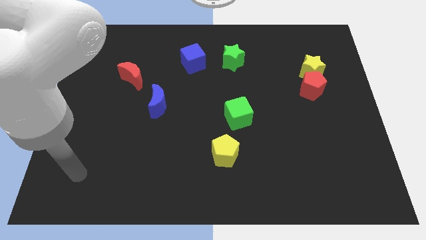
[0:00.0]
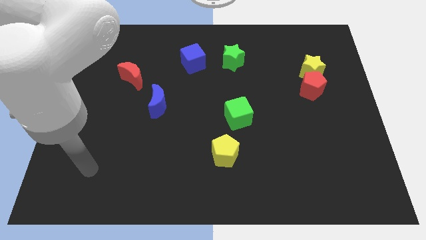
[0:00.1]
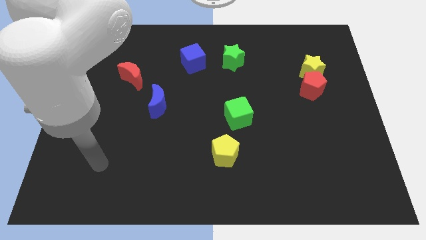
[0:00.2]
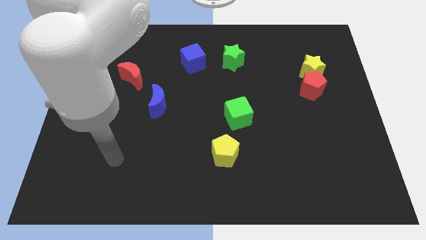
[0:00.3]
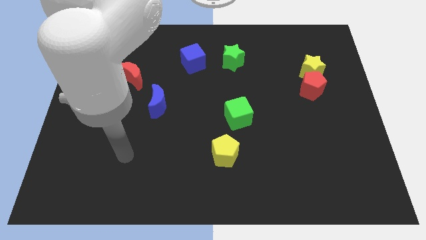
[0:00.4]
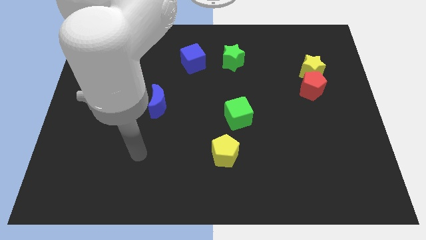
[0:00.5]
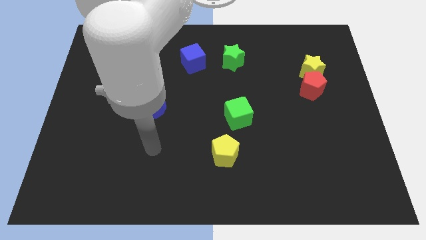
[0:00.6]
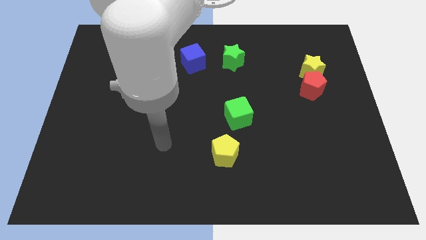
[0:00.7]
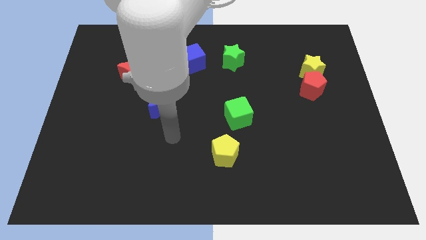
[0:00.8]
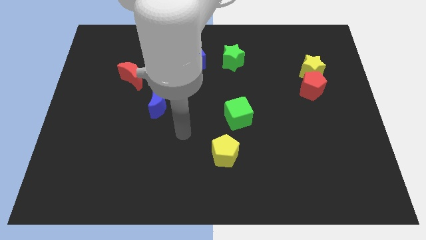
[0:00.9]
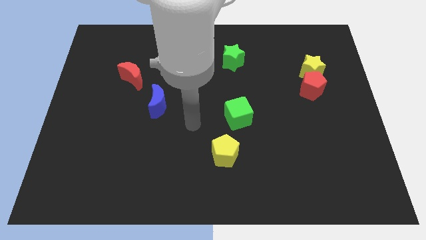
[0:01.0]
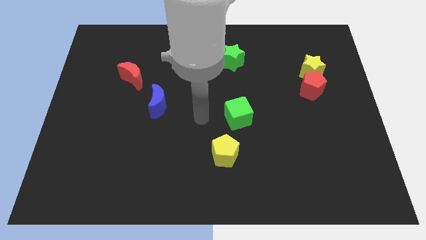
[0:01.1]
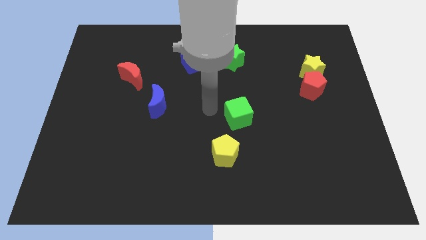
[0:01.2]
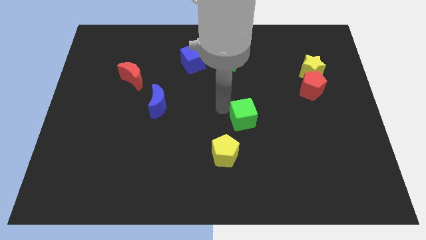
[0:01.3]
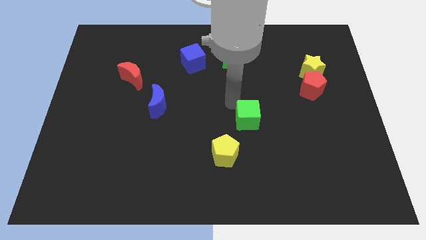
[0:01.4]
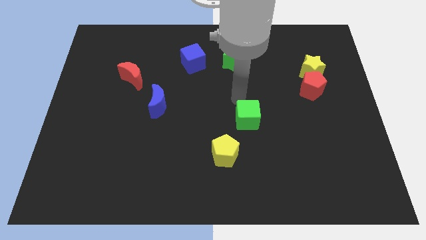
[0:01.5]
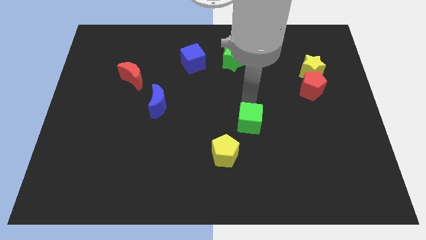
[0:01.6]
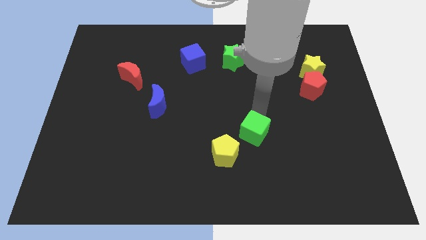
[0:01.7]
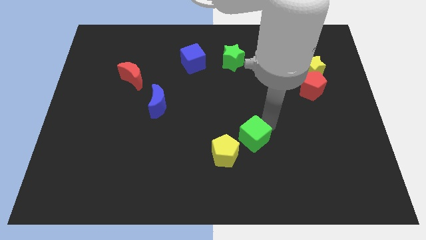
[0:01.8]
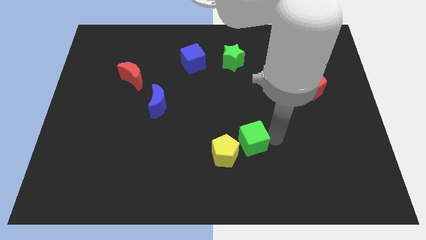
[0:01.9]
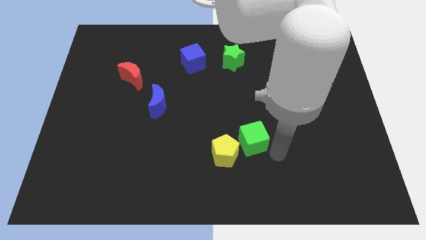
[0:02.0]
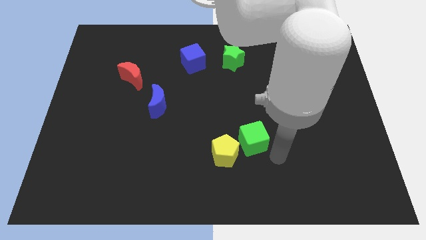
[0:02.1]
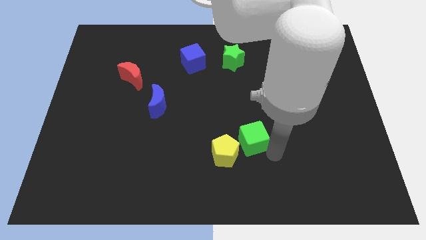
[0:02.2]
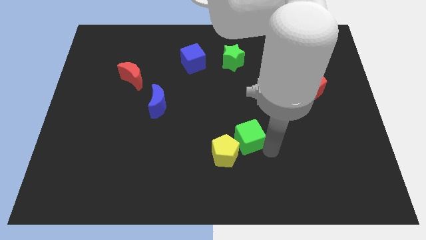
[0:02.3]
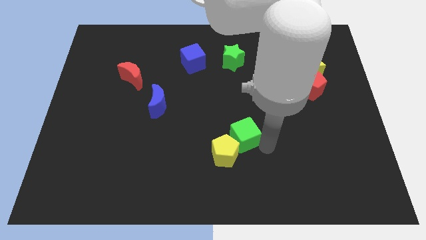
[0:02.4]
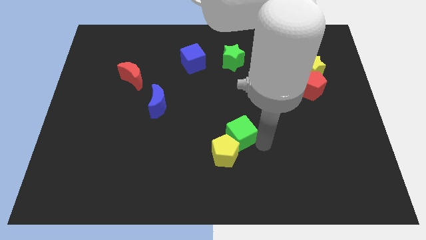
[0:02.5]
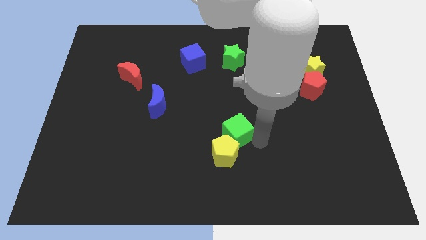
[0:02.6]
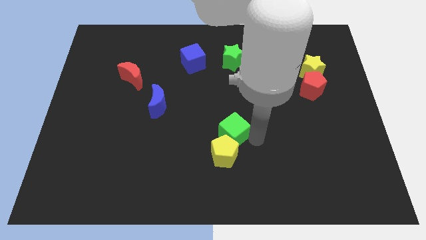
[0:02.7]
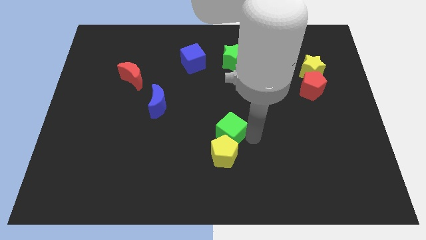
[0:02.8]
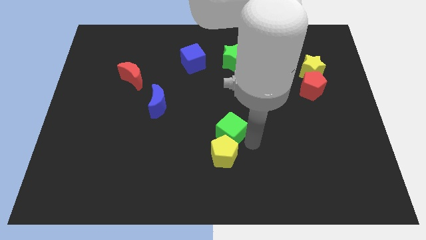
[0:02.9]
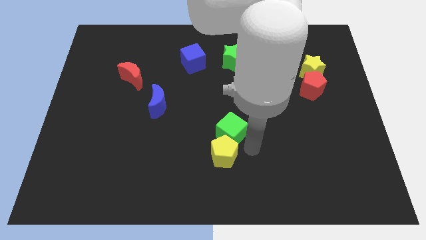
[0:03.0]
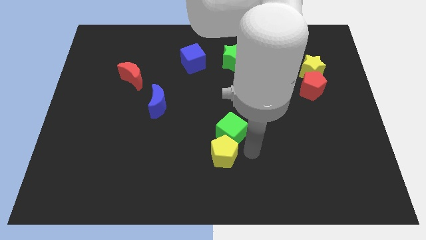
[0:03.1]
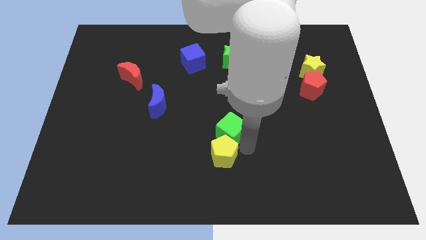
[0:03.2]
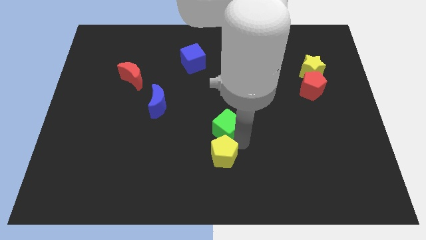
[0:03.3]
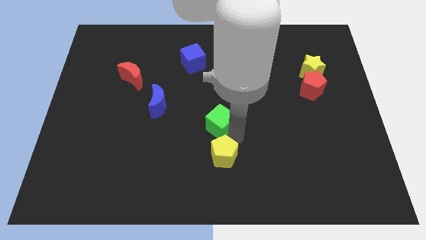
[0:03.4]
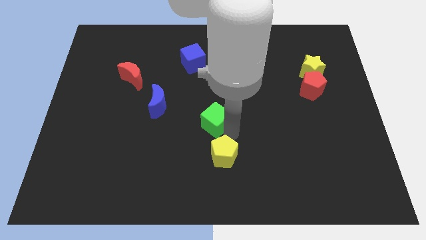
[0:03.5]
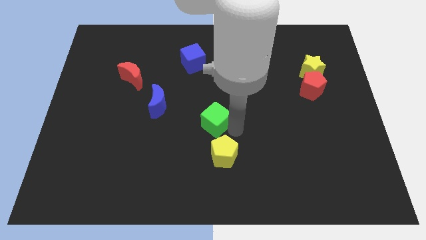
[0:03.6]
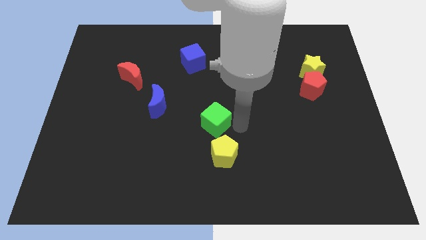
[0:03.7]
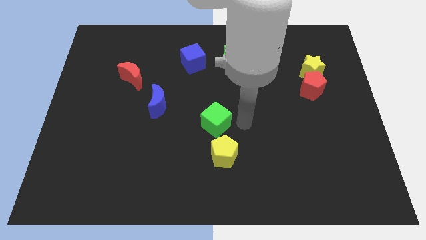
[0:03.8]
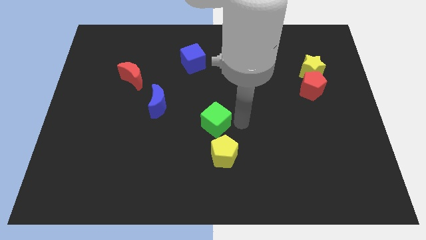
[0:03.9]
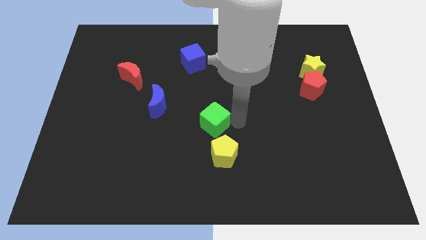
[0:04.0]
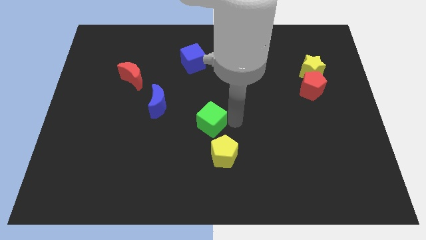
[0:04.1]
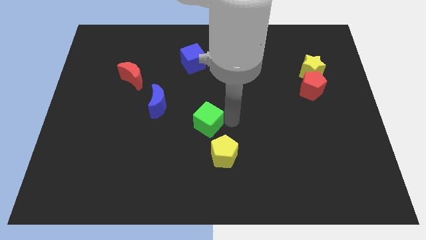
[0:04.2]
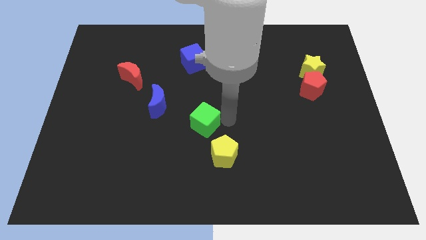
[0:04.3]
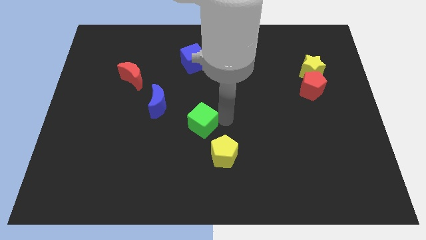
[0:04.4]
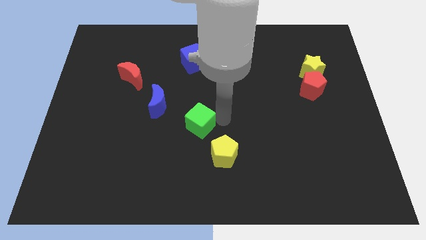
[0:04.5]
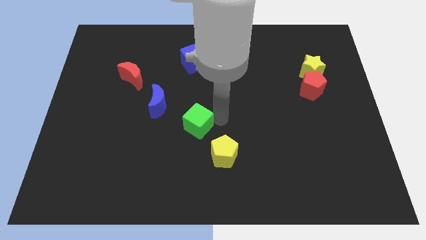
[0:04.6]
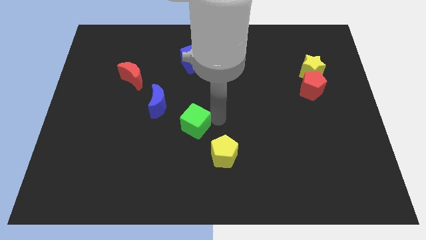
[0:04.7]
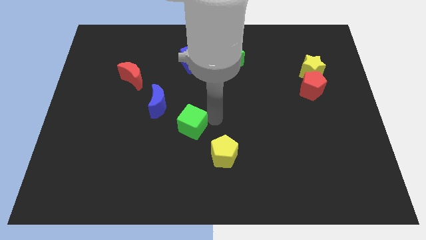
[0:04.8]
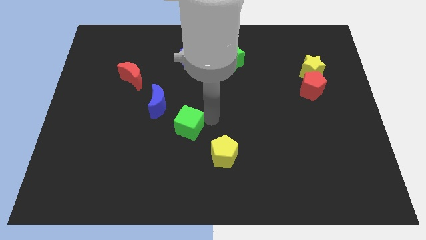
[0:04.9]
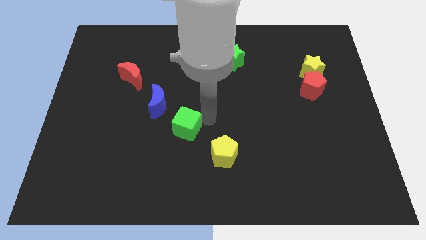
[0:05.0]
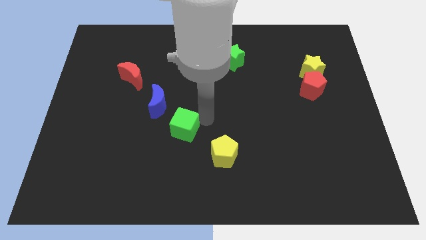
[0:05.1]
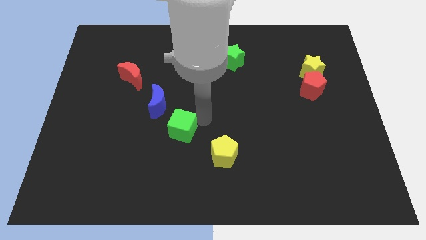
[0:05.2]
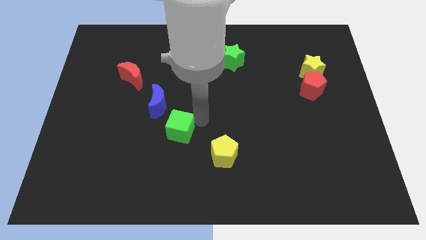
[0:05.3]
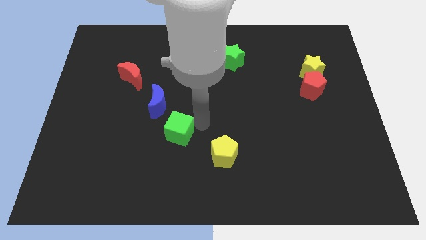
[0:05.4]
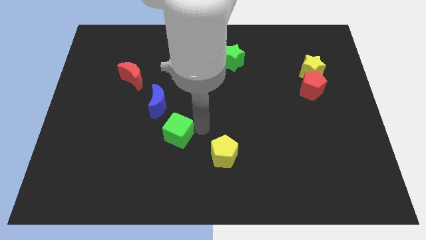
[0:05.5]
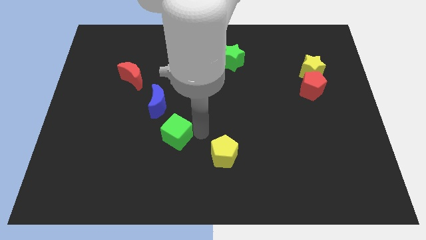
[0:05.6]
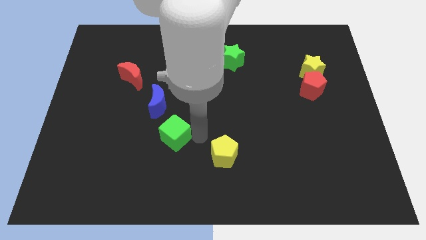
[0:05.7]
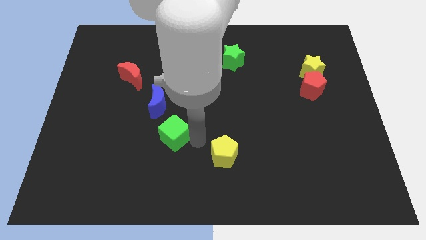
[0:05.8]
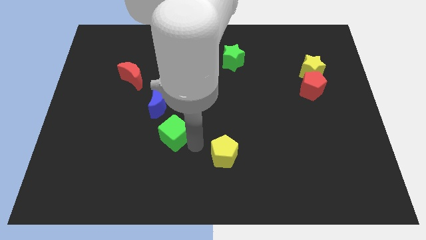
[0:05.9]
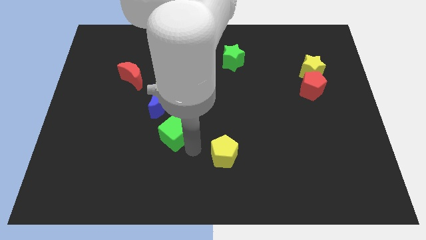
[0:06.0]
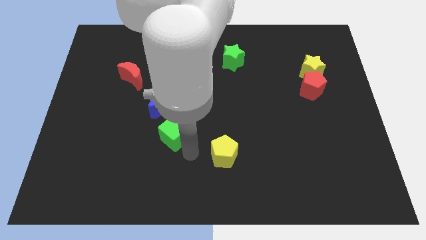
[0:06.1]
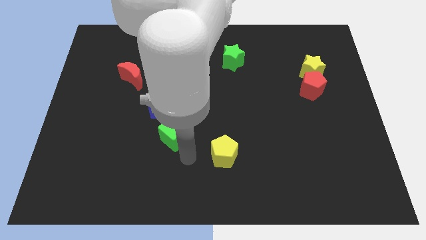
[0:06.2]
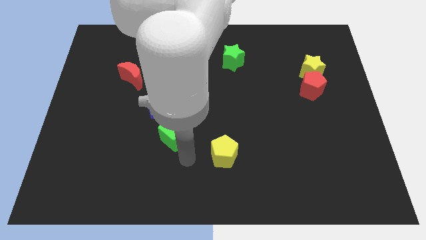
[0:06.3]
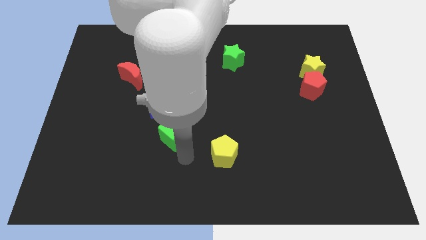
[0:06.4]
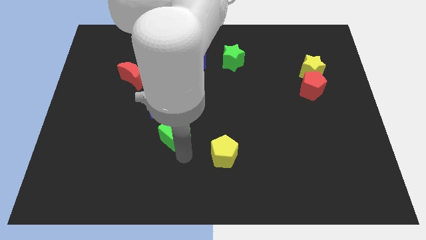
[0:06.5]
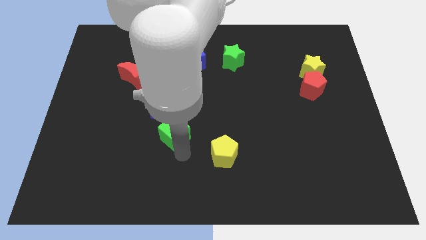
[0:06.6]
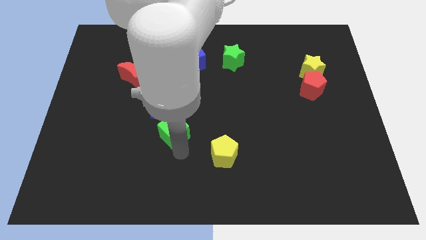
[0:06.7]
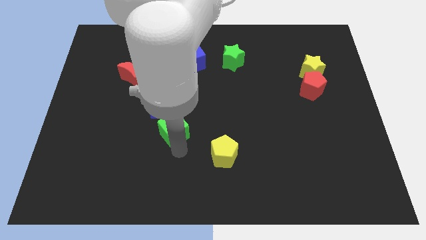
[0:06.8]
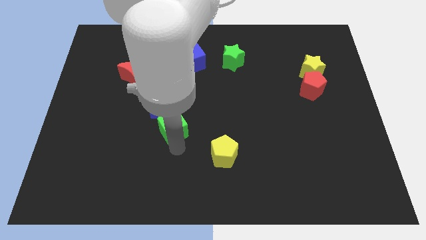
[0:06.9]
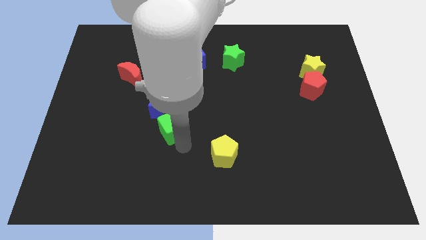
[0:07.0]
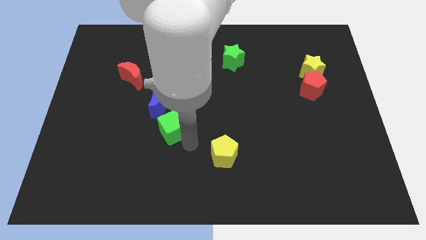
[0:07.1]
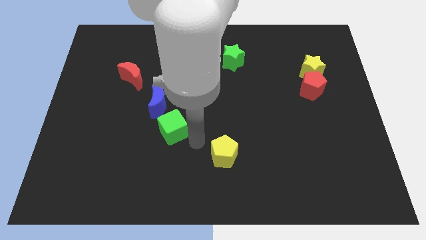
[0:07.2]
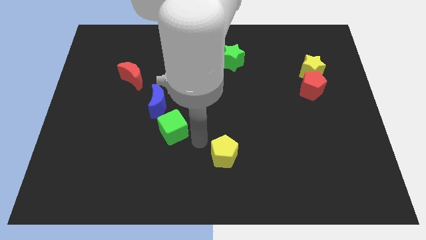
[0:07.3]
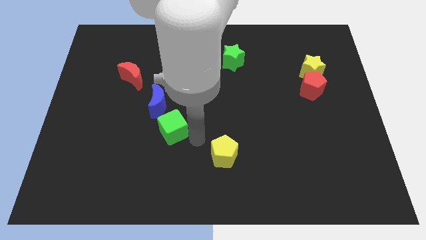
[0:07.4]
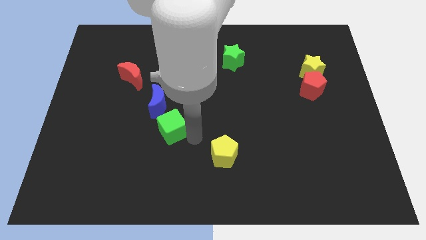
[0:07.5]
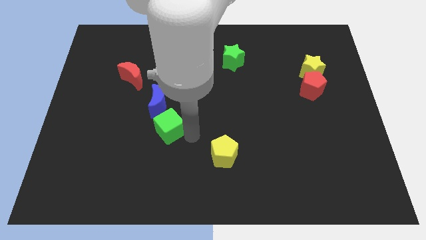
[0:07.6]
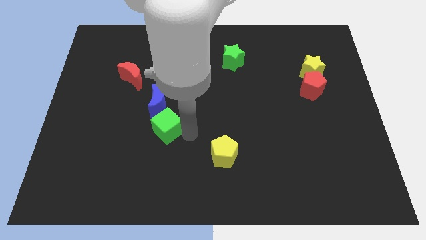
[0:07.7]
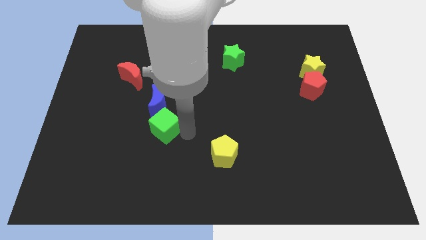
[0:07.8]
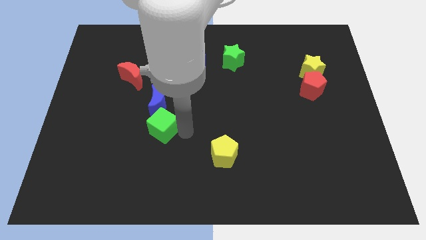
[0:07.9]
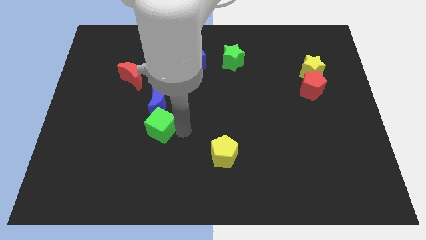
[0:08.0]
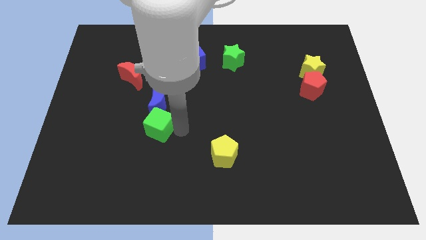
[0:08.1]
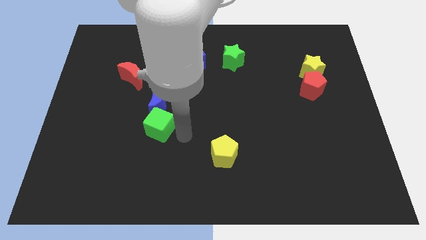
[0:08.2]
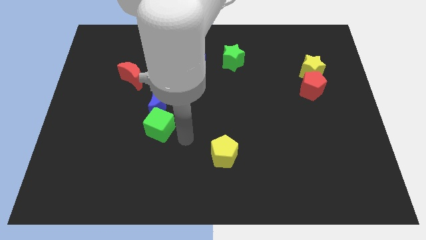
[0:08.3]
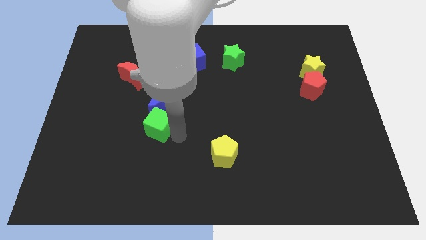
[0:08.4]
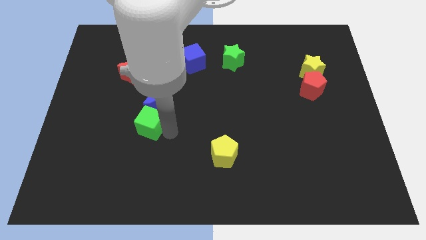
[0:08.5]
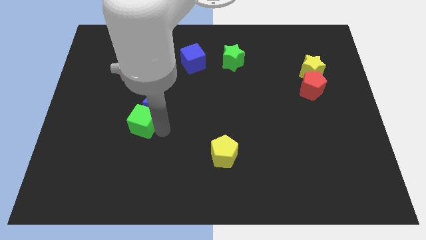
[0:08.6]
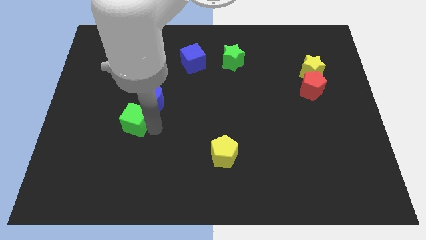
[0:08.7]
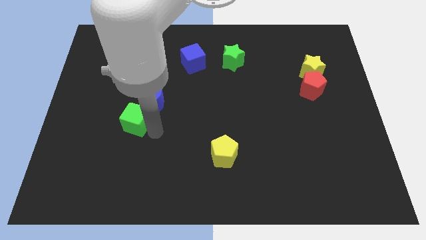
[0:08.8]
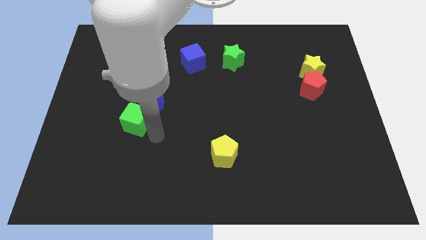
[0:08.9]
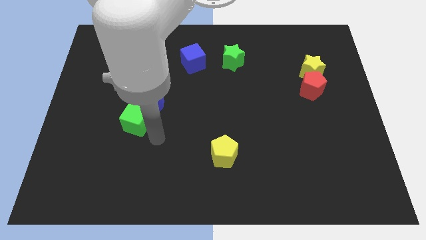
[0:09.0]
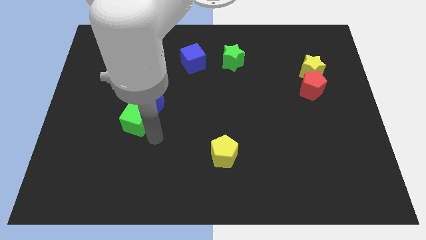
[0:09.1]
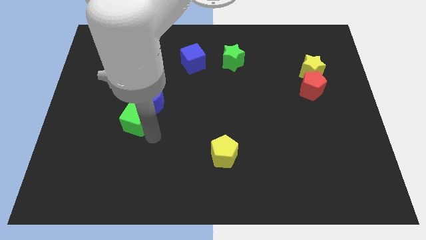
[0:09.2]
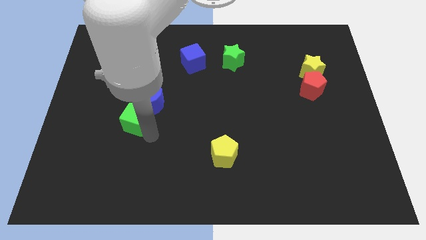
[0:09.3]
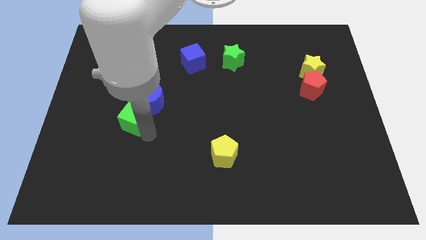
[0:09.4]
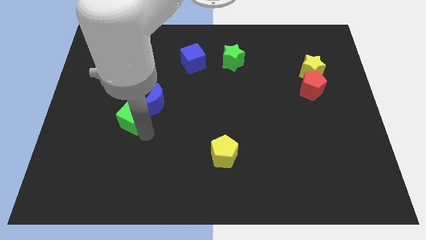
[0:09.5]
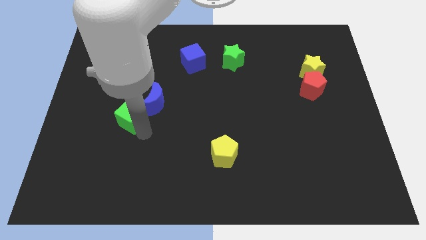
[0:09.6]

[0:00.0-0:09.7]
move the green cube left of the blue moon
